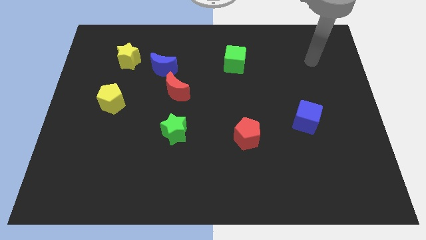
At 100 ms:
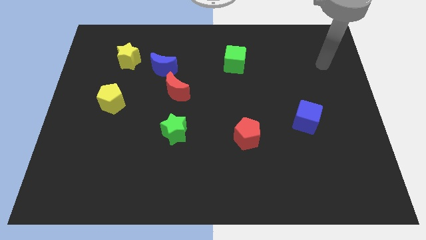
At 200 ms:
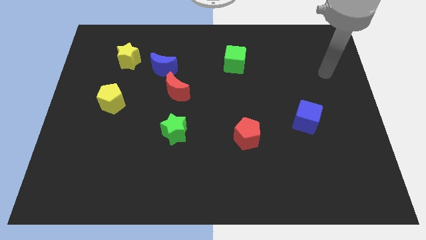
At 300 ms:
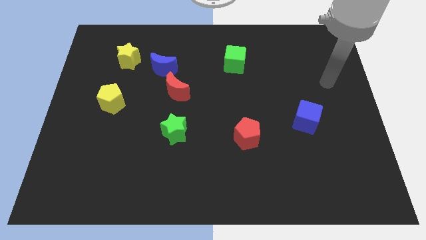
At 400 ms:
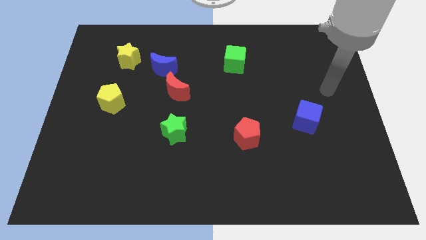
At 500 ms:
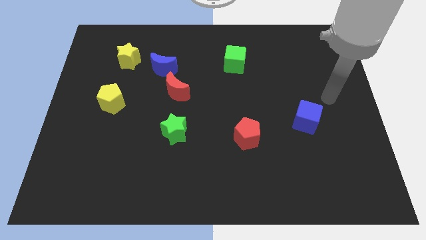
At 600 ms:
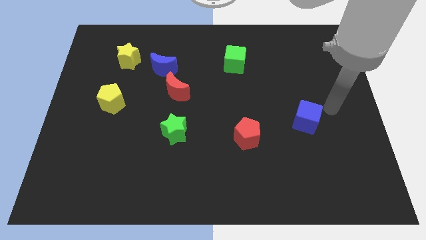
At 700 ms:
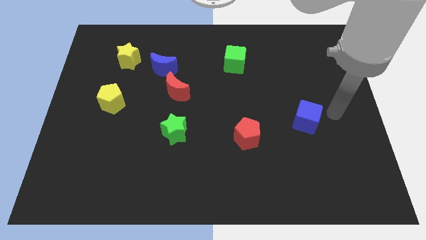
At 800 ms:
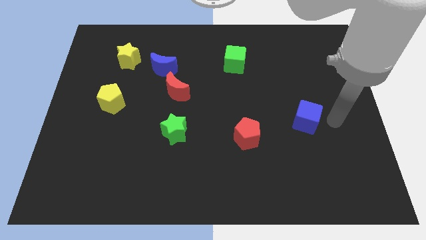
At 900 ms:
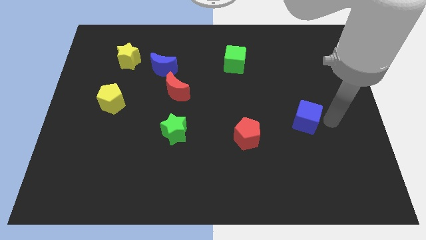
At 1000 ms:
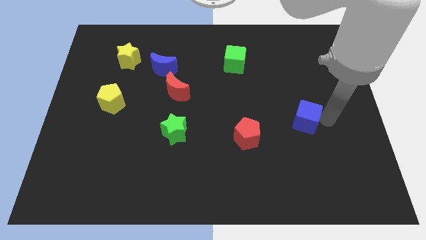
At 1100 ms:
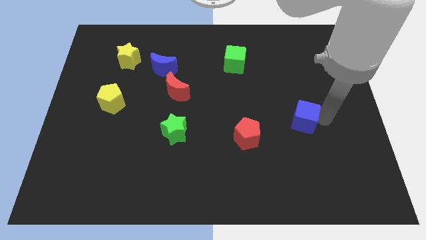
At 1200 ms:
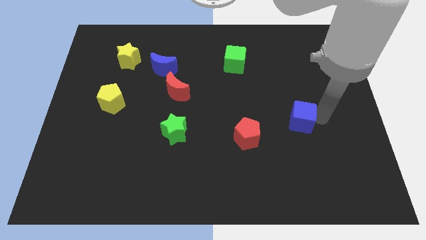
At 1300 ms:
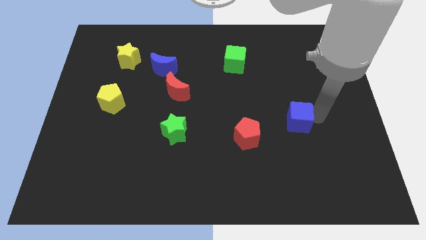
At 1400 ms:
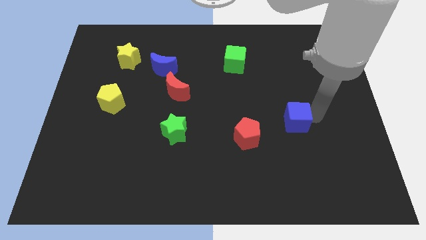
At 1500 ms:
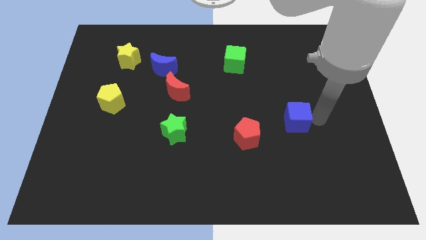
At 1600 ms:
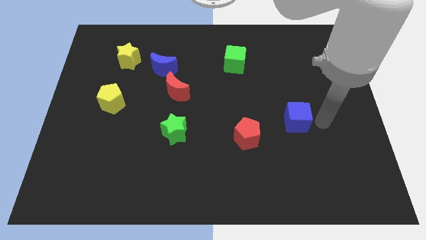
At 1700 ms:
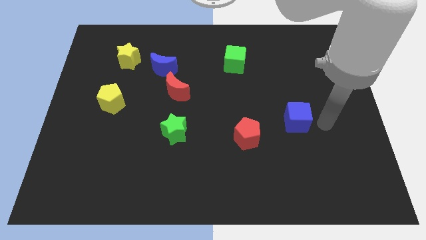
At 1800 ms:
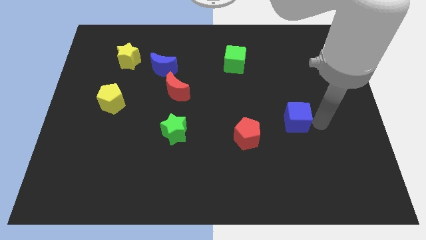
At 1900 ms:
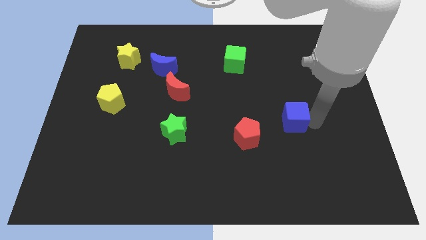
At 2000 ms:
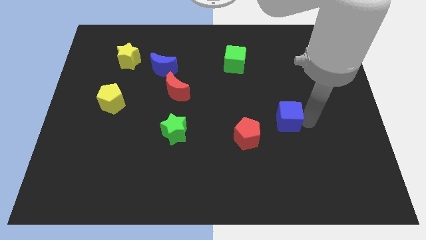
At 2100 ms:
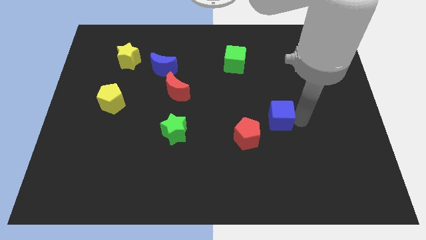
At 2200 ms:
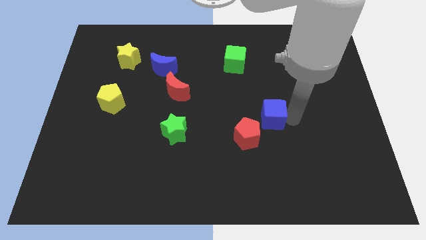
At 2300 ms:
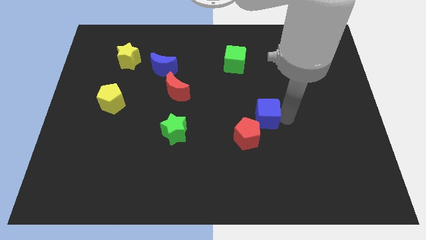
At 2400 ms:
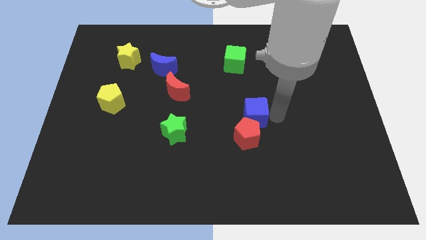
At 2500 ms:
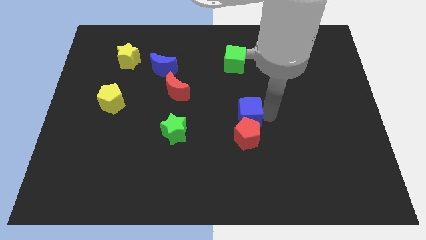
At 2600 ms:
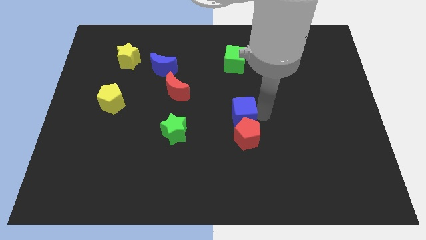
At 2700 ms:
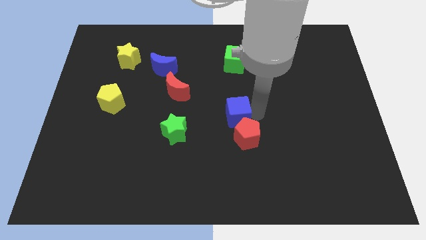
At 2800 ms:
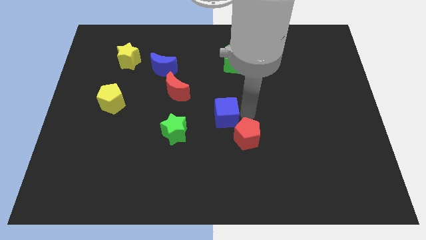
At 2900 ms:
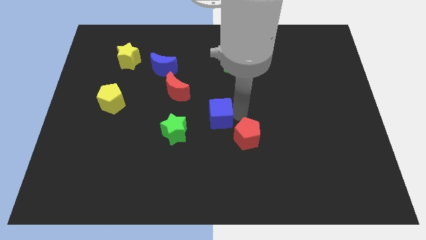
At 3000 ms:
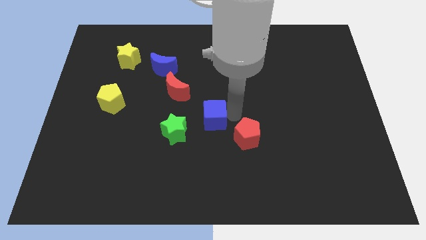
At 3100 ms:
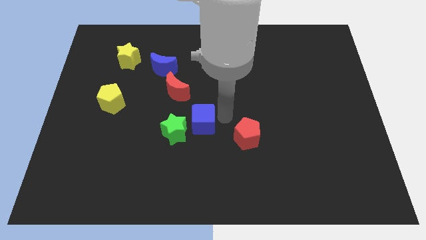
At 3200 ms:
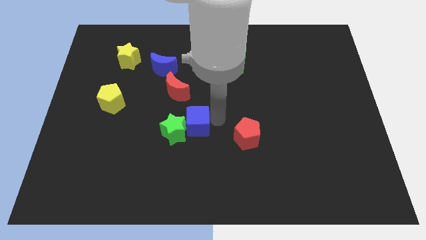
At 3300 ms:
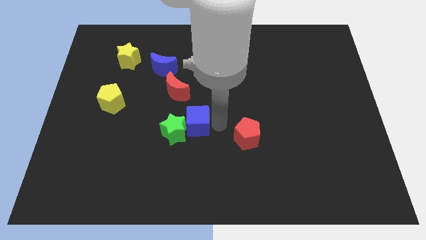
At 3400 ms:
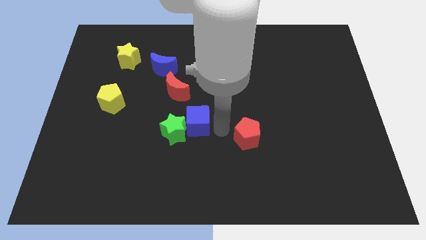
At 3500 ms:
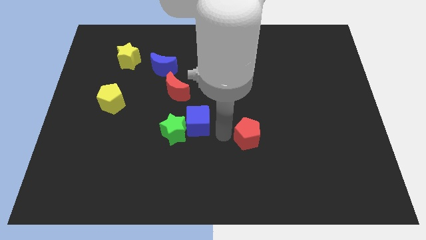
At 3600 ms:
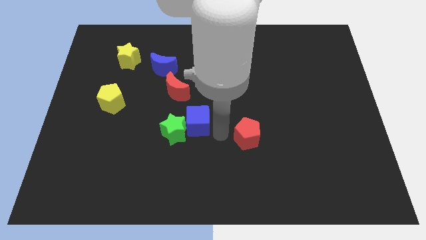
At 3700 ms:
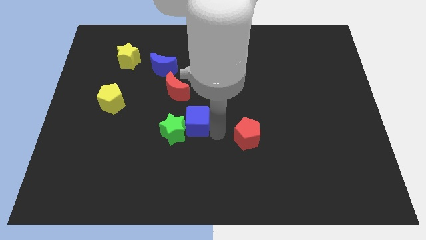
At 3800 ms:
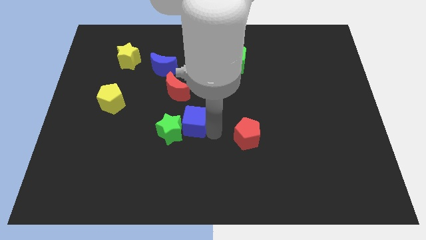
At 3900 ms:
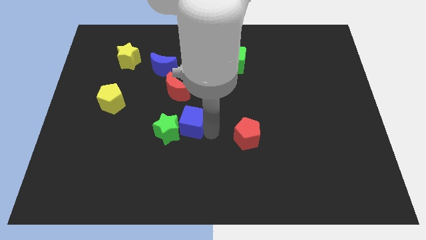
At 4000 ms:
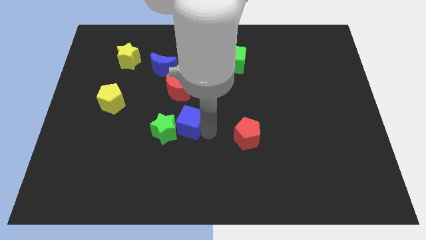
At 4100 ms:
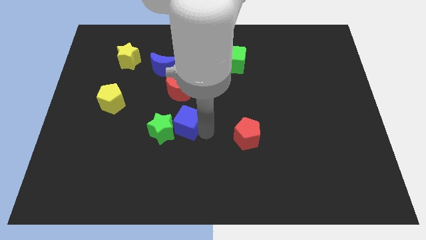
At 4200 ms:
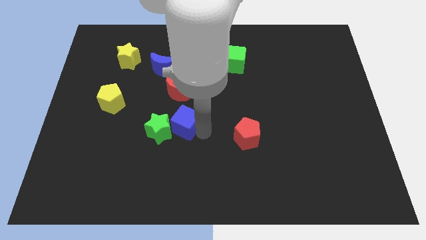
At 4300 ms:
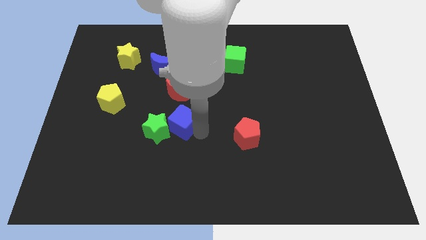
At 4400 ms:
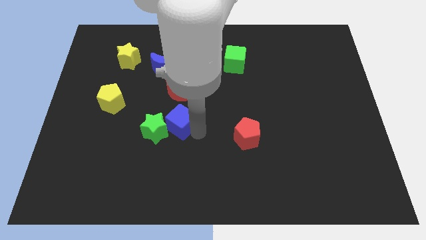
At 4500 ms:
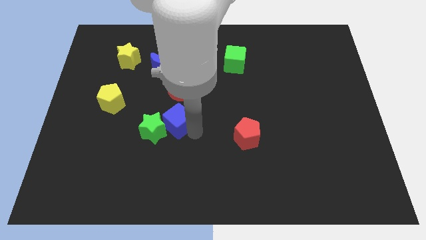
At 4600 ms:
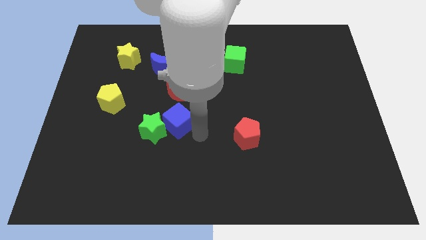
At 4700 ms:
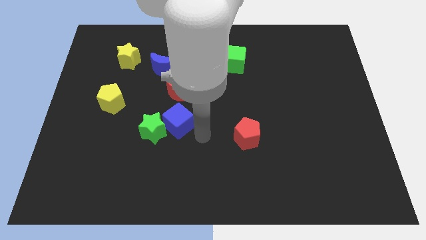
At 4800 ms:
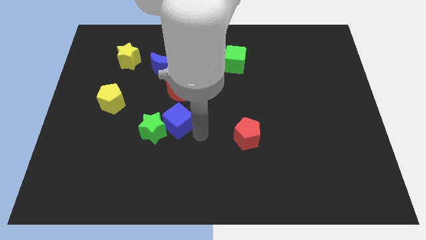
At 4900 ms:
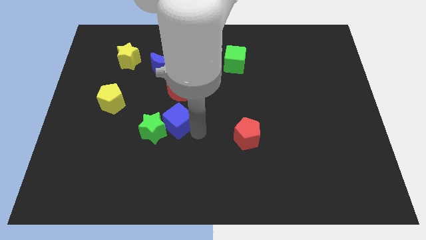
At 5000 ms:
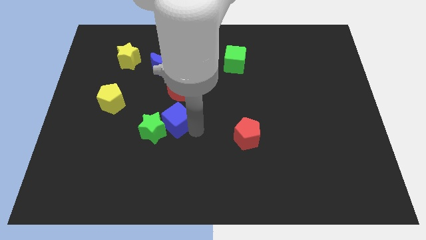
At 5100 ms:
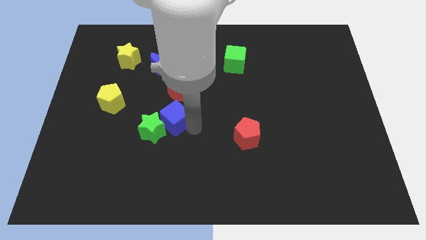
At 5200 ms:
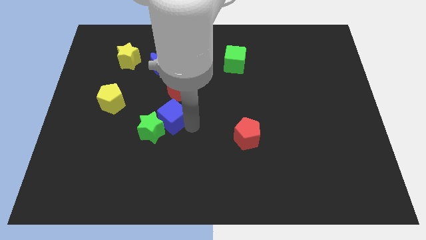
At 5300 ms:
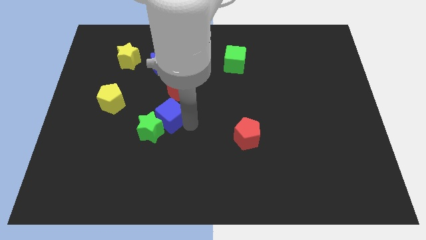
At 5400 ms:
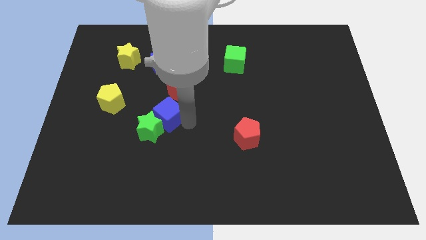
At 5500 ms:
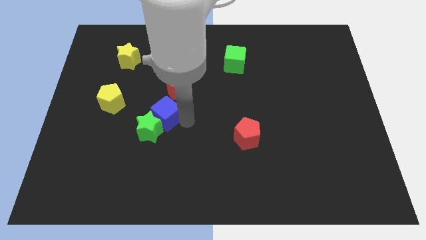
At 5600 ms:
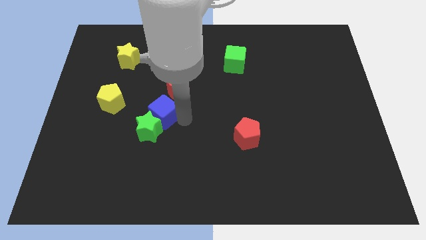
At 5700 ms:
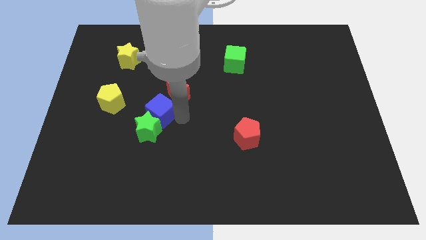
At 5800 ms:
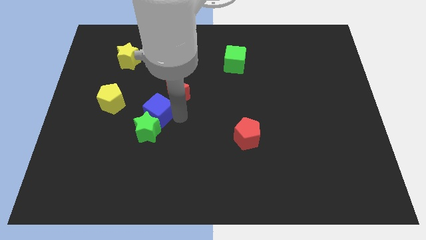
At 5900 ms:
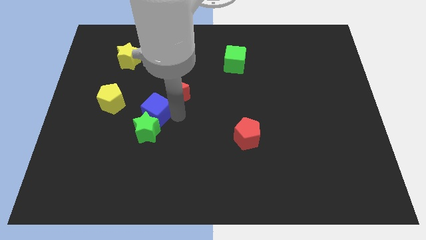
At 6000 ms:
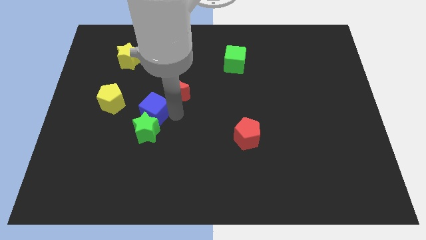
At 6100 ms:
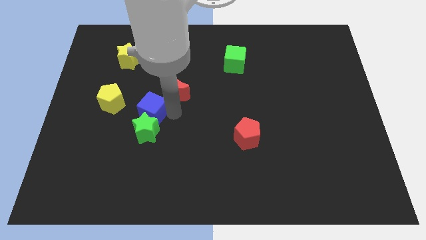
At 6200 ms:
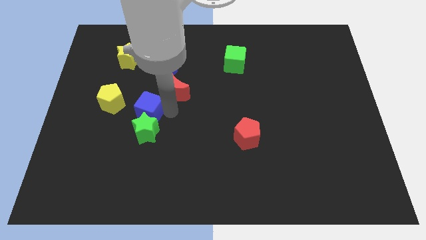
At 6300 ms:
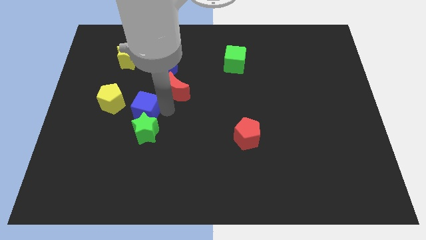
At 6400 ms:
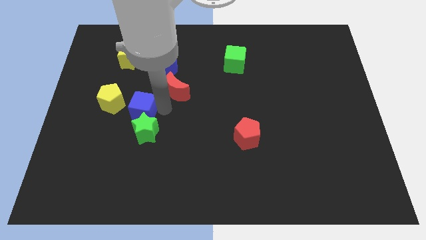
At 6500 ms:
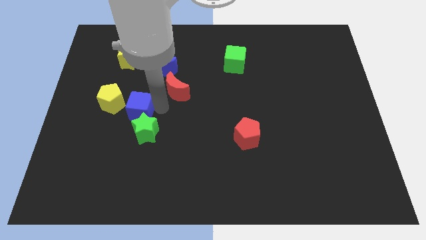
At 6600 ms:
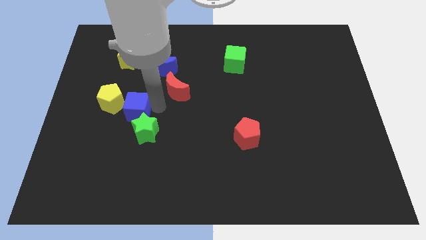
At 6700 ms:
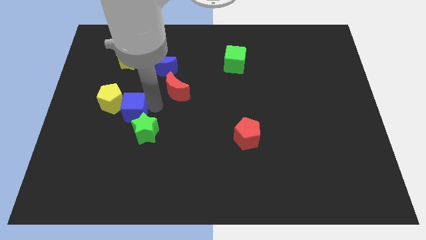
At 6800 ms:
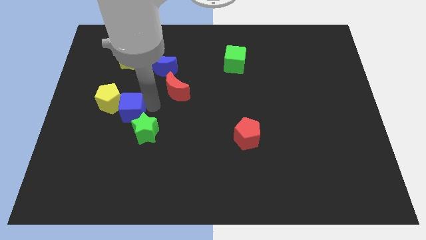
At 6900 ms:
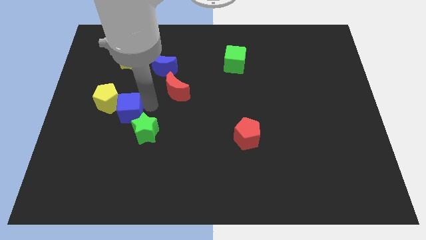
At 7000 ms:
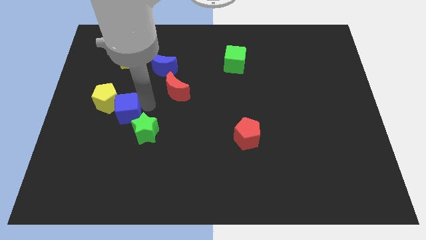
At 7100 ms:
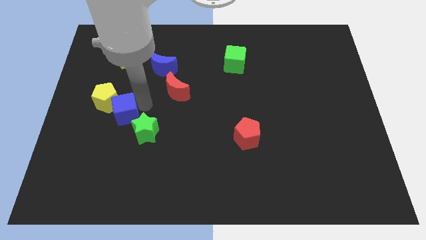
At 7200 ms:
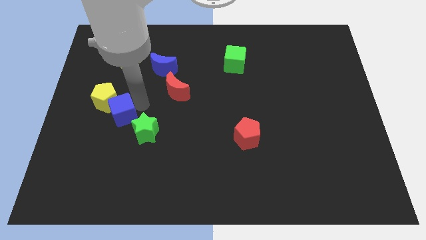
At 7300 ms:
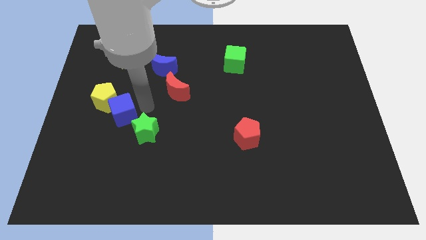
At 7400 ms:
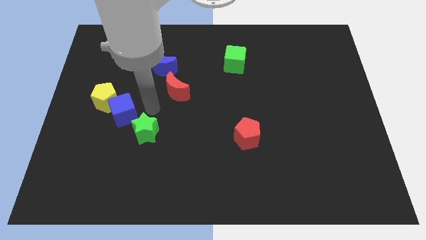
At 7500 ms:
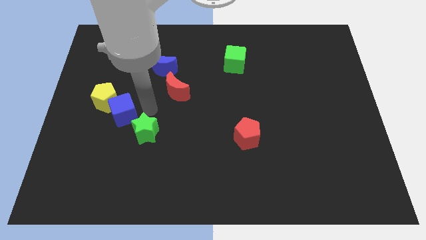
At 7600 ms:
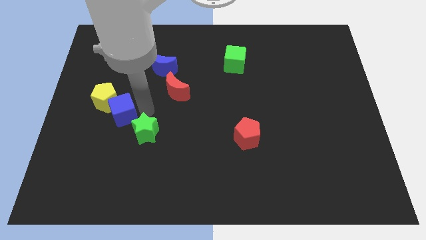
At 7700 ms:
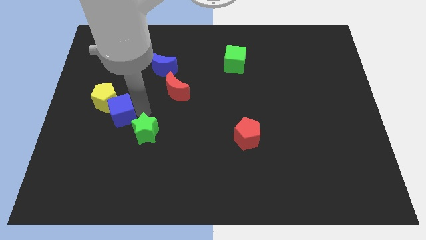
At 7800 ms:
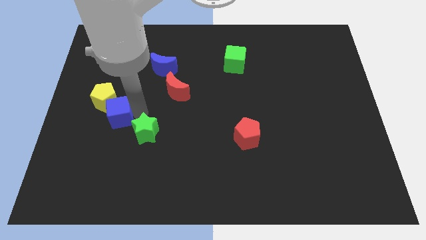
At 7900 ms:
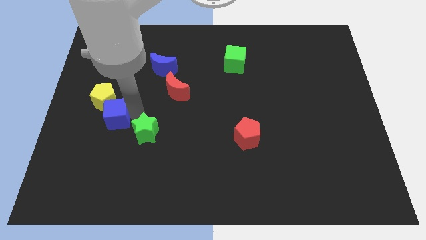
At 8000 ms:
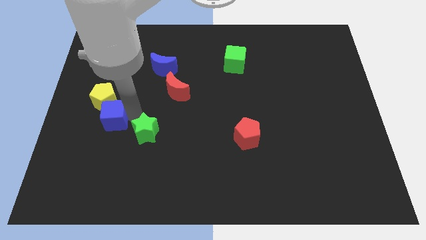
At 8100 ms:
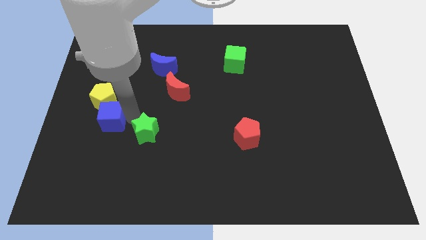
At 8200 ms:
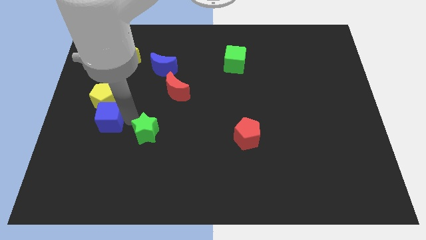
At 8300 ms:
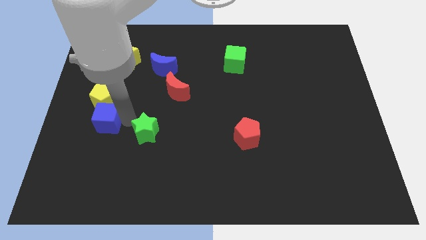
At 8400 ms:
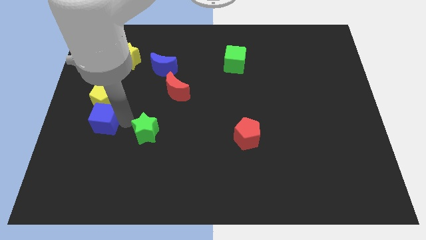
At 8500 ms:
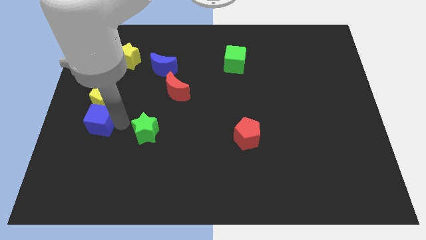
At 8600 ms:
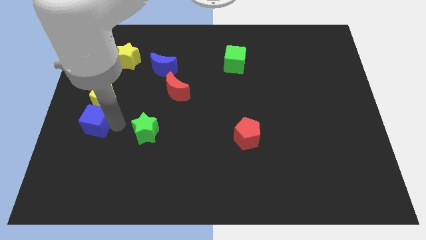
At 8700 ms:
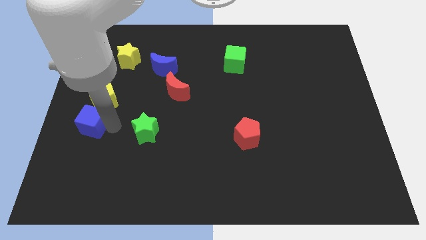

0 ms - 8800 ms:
move the blue cube to the center left
